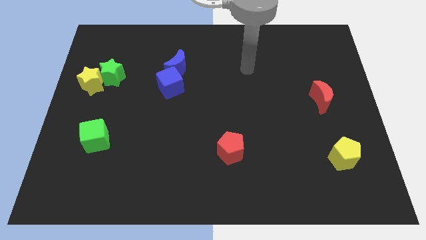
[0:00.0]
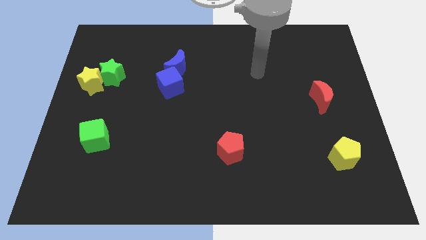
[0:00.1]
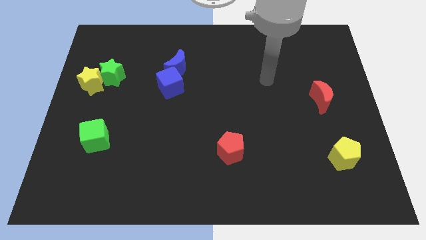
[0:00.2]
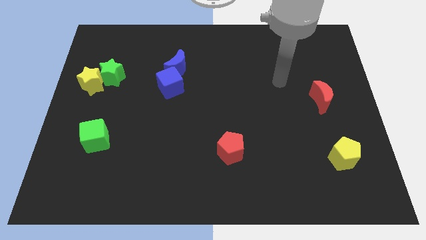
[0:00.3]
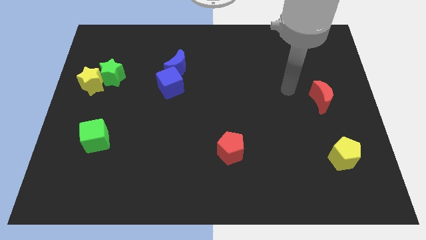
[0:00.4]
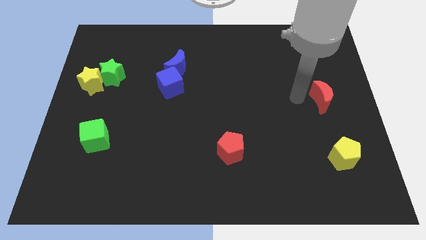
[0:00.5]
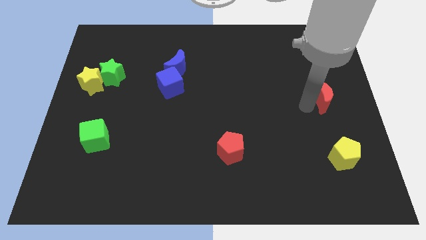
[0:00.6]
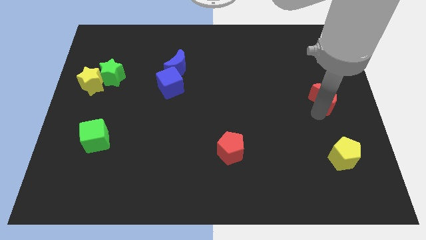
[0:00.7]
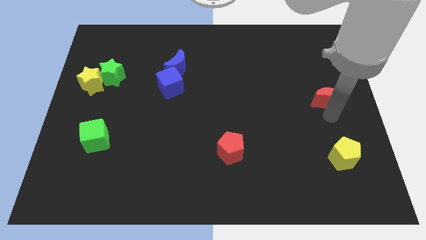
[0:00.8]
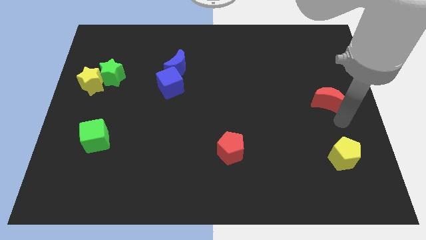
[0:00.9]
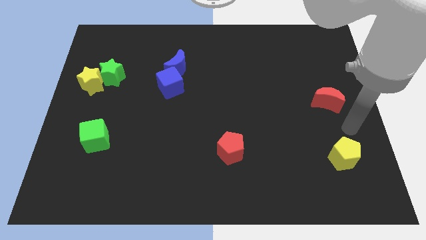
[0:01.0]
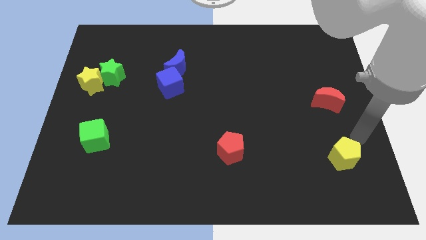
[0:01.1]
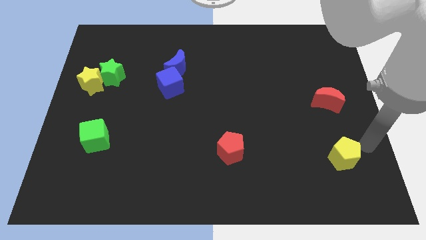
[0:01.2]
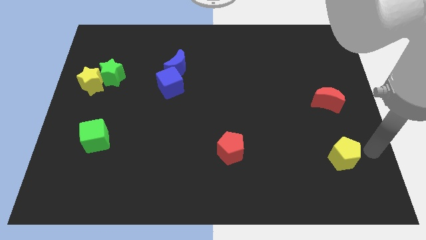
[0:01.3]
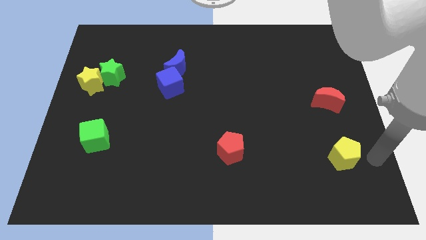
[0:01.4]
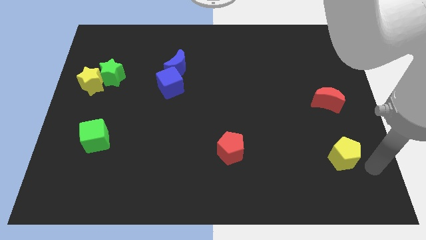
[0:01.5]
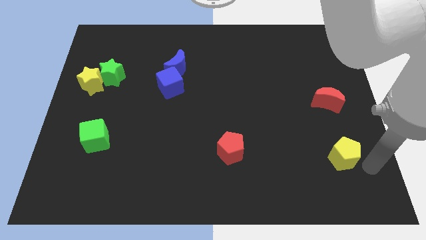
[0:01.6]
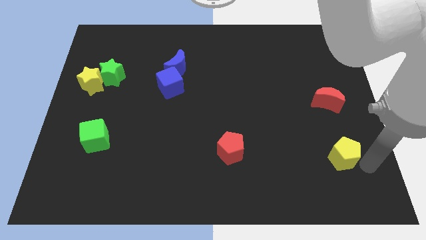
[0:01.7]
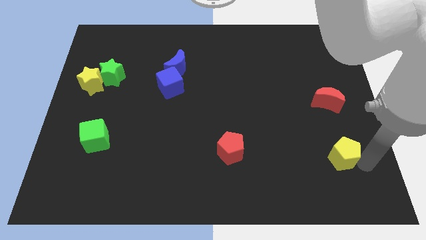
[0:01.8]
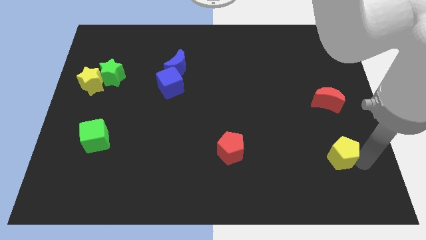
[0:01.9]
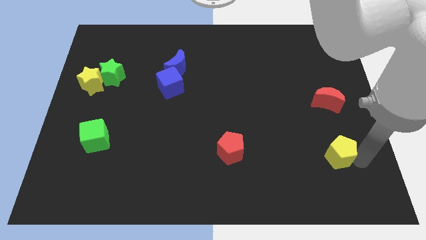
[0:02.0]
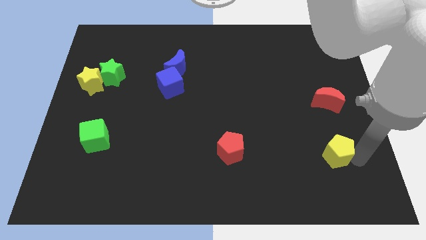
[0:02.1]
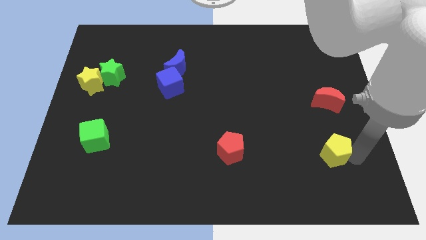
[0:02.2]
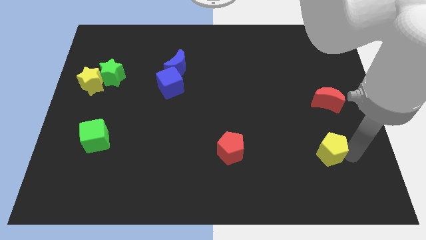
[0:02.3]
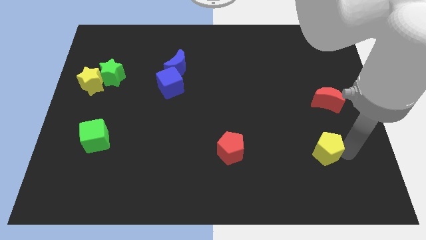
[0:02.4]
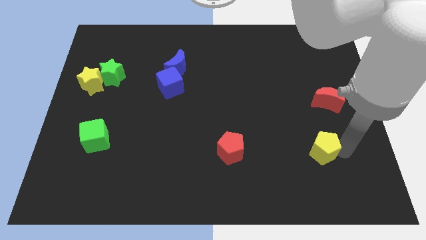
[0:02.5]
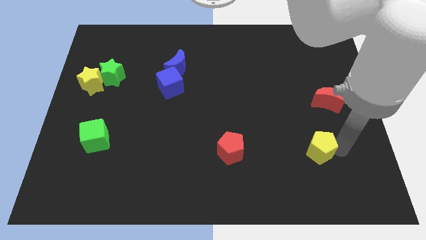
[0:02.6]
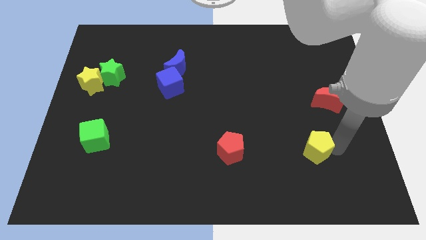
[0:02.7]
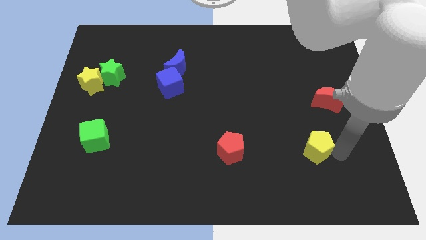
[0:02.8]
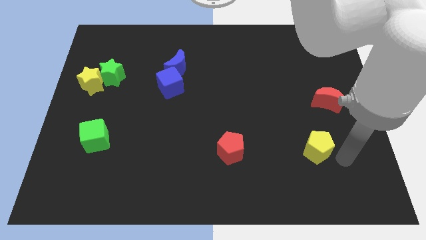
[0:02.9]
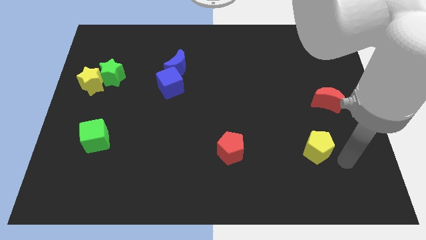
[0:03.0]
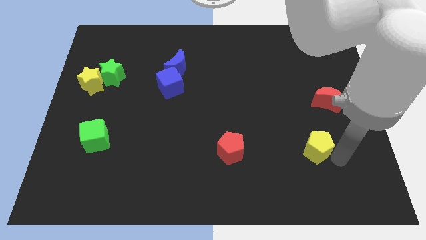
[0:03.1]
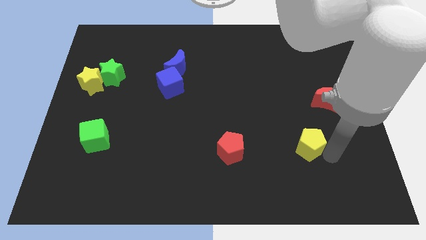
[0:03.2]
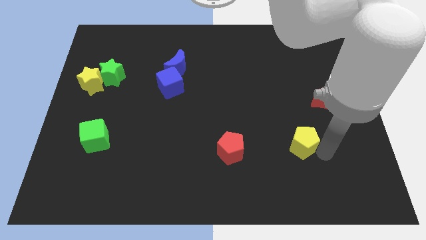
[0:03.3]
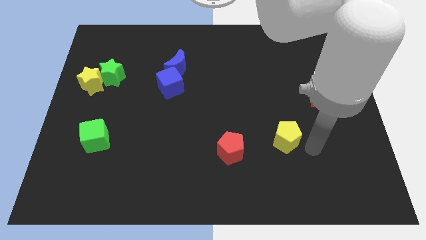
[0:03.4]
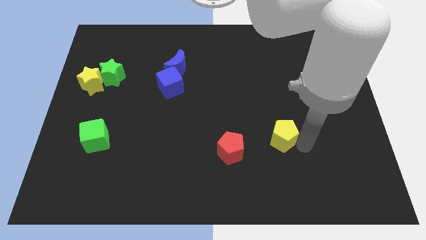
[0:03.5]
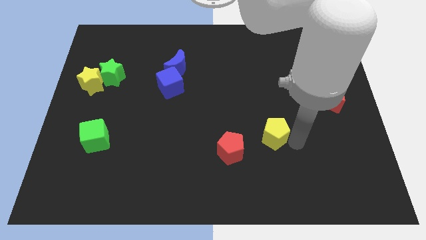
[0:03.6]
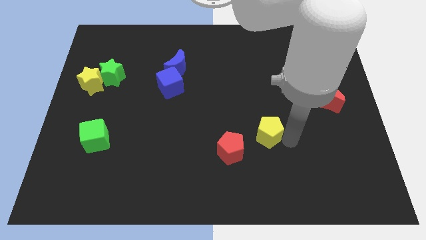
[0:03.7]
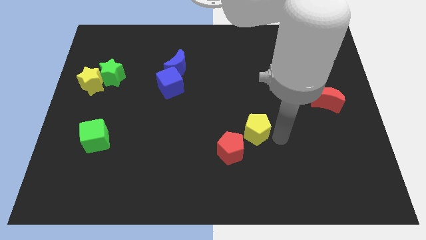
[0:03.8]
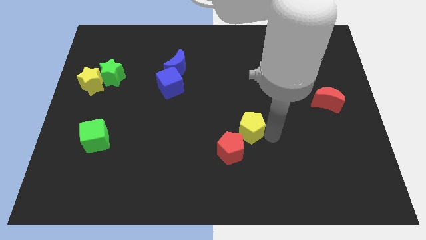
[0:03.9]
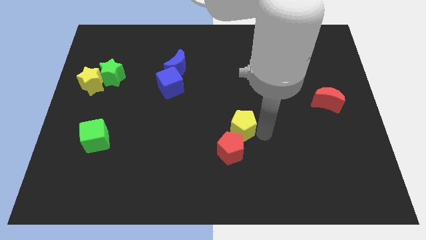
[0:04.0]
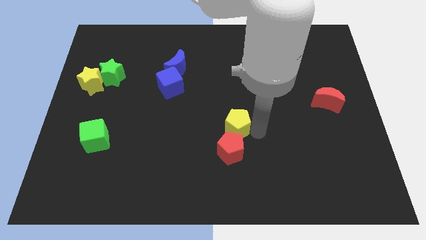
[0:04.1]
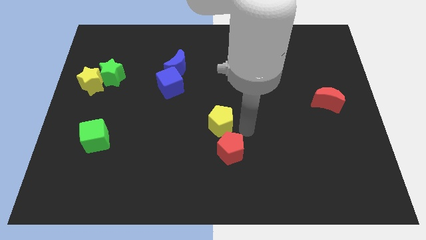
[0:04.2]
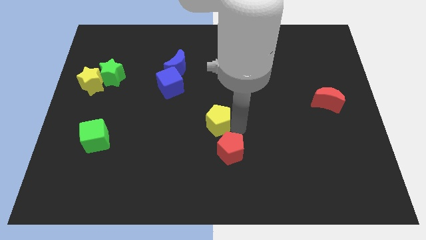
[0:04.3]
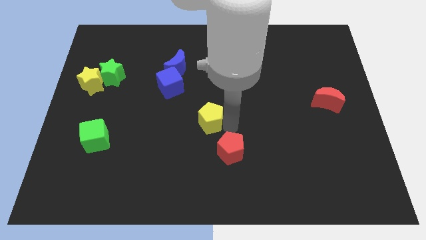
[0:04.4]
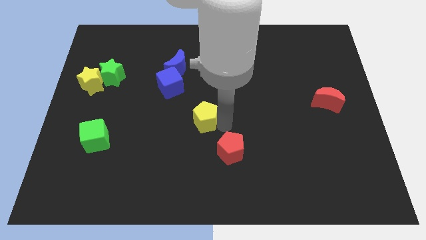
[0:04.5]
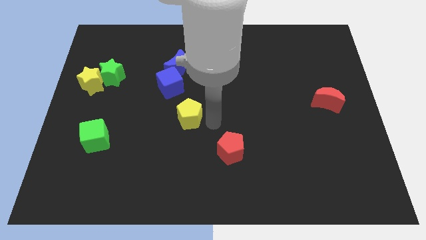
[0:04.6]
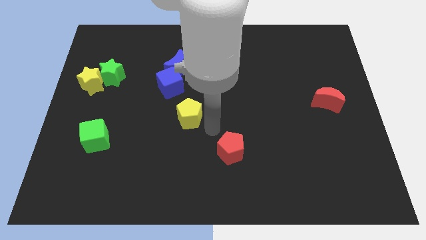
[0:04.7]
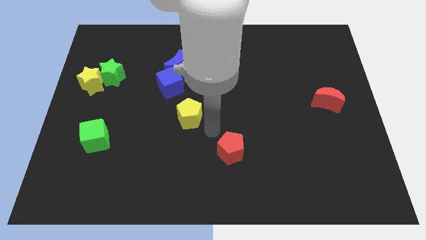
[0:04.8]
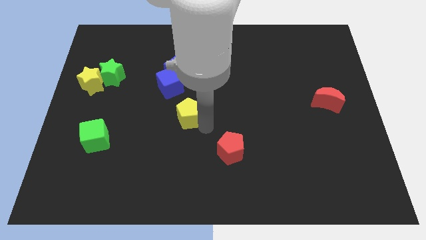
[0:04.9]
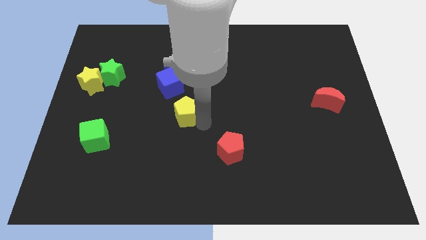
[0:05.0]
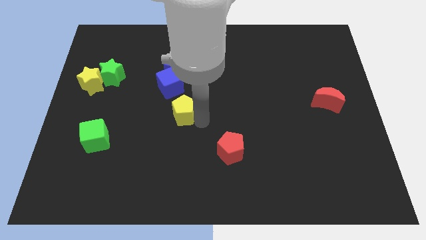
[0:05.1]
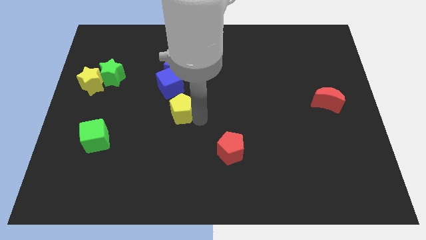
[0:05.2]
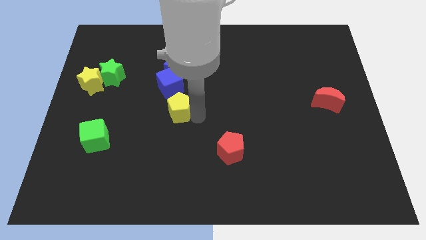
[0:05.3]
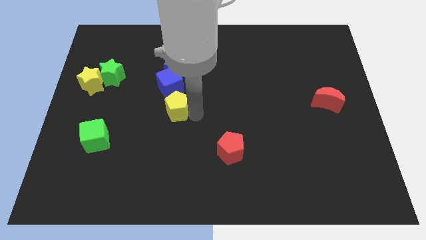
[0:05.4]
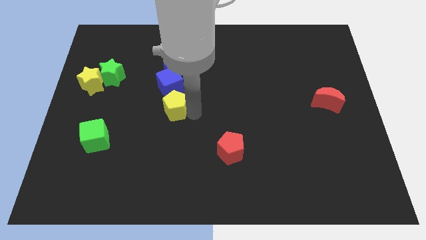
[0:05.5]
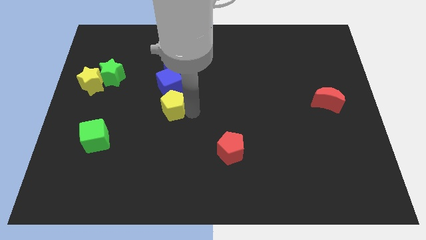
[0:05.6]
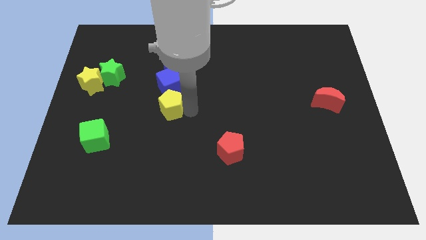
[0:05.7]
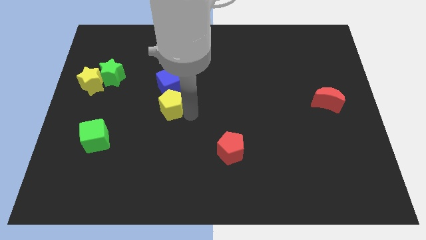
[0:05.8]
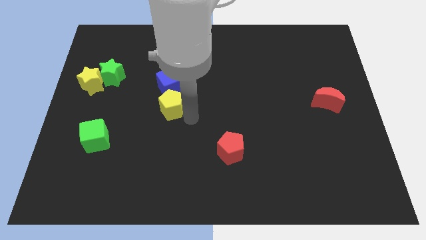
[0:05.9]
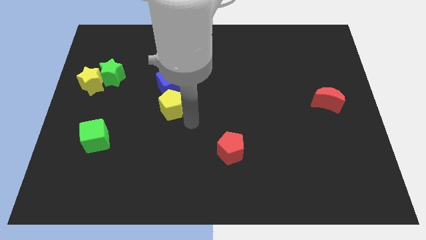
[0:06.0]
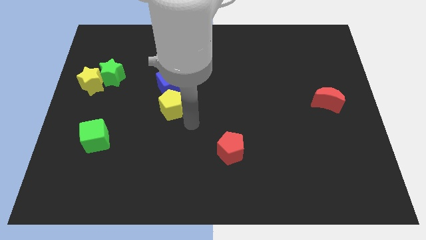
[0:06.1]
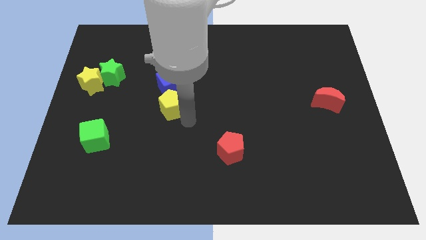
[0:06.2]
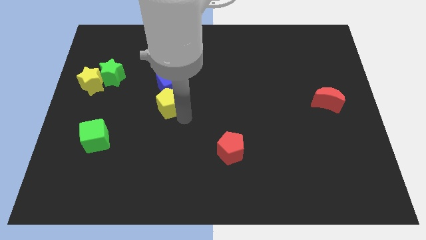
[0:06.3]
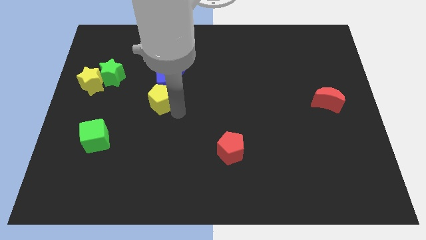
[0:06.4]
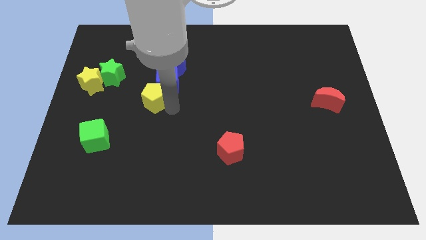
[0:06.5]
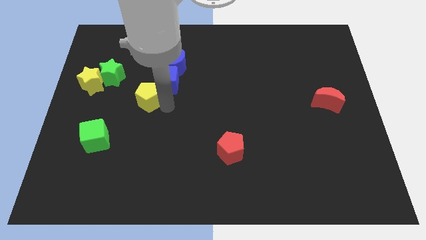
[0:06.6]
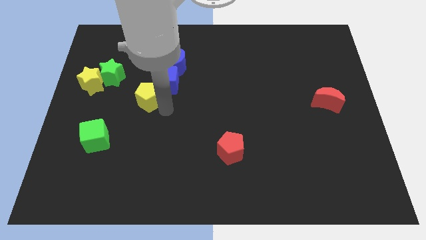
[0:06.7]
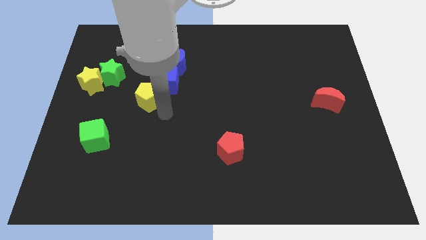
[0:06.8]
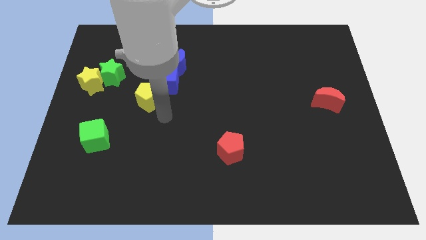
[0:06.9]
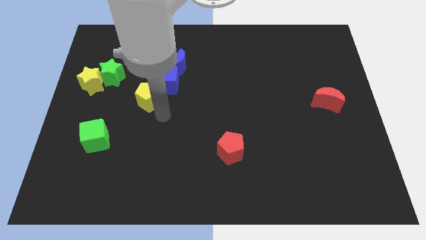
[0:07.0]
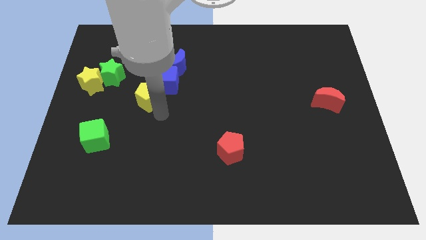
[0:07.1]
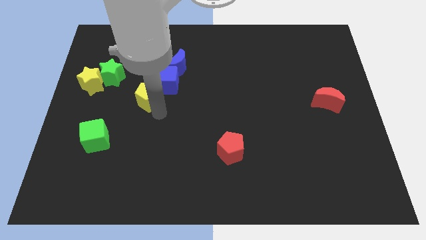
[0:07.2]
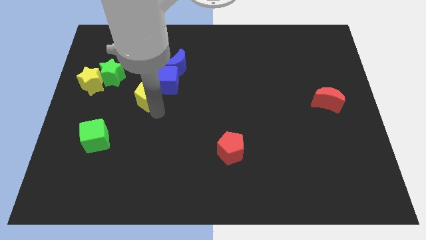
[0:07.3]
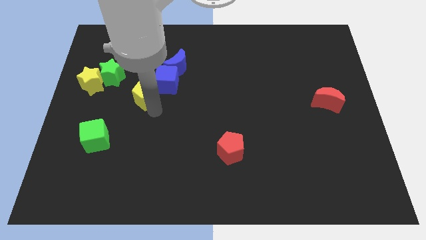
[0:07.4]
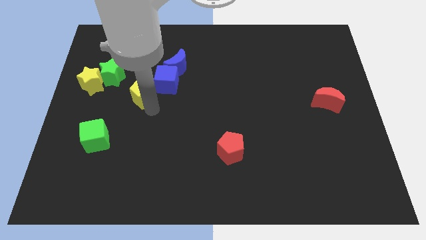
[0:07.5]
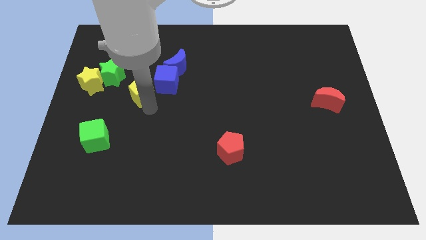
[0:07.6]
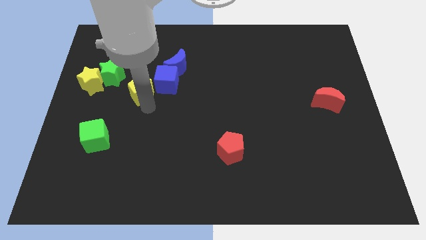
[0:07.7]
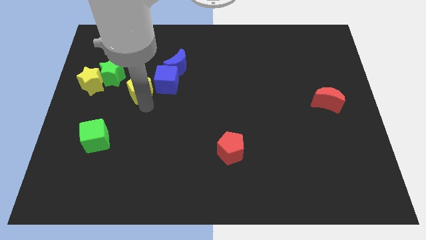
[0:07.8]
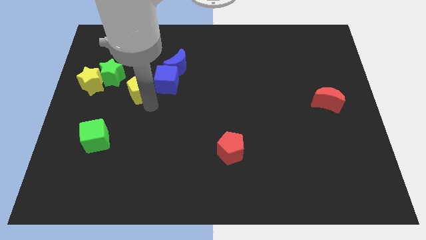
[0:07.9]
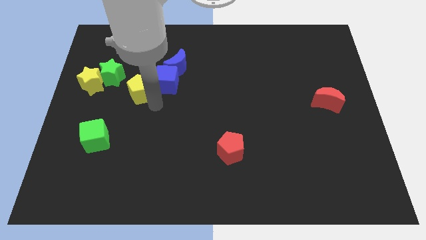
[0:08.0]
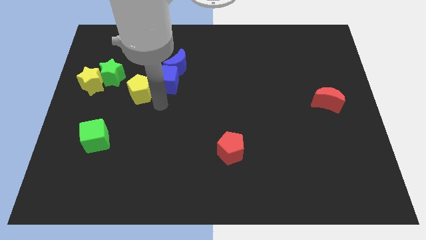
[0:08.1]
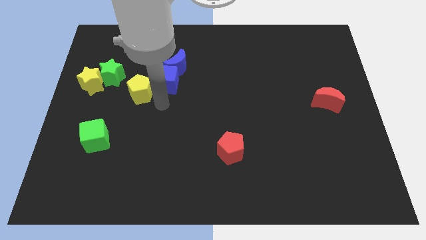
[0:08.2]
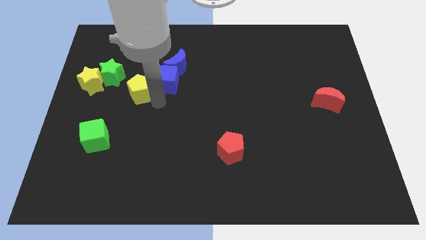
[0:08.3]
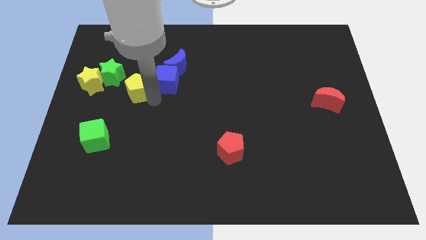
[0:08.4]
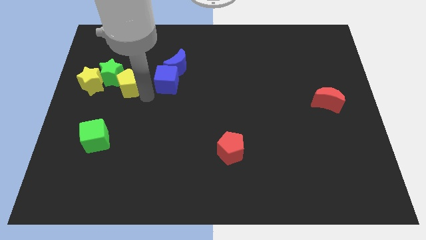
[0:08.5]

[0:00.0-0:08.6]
slide the yellow pentagon next to the green star

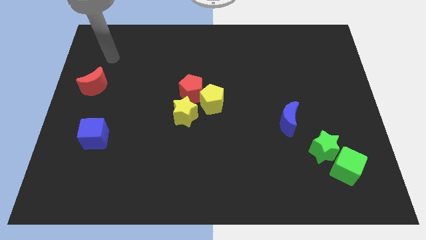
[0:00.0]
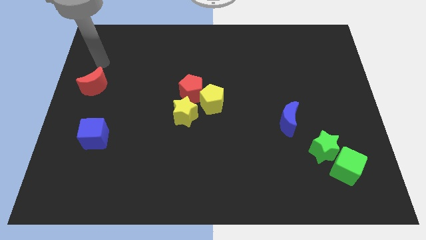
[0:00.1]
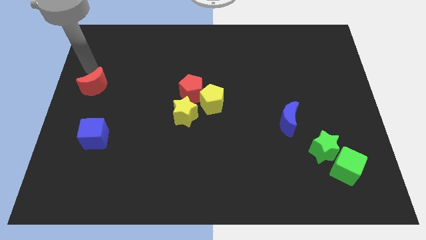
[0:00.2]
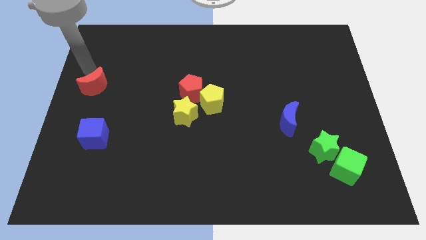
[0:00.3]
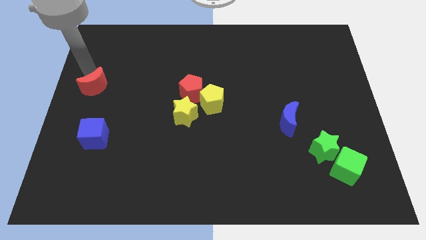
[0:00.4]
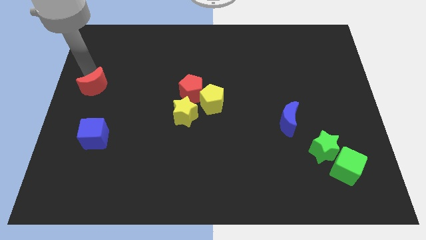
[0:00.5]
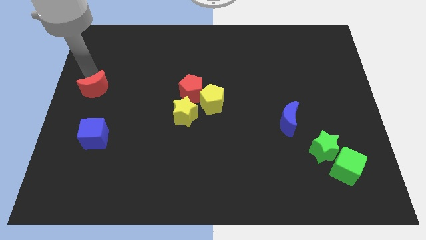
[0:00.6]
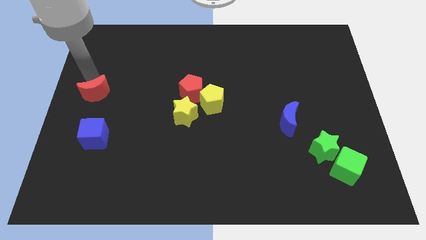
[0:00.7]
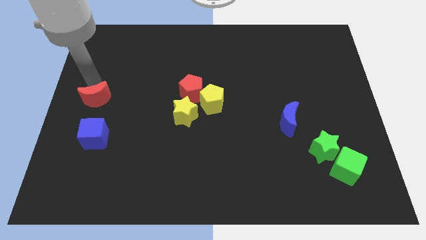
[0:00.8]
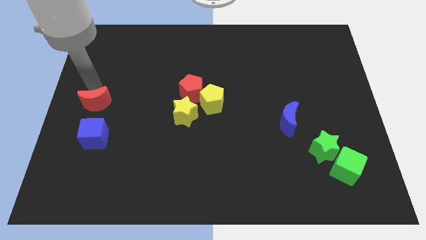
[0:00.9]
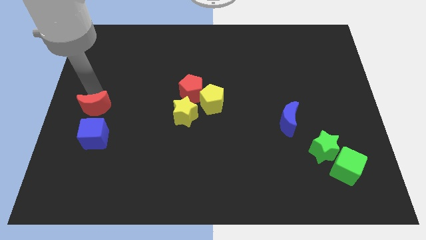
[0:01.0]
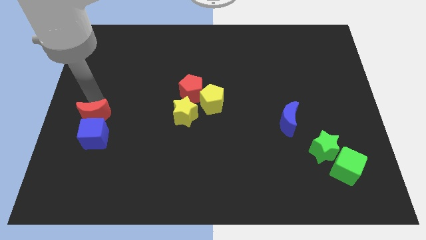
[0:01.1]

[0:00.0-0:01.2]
slide the red moon to the blue cube
